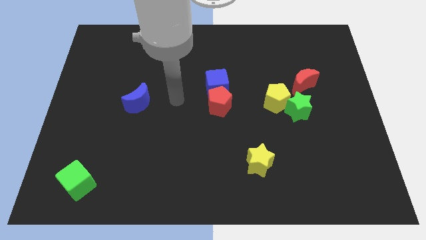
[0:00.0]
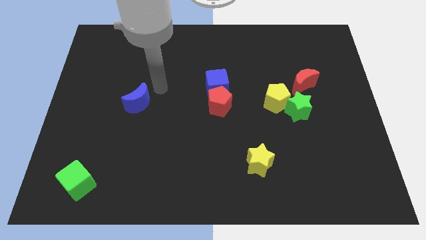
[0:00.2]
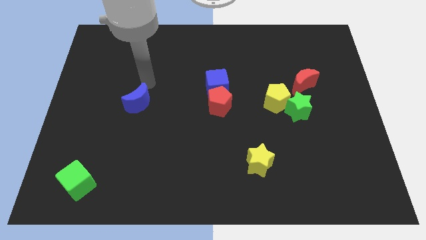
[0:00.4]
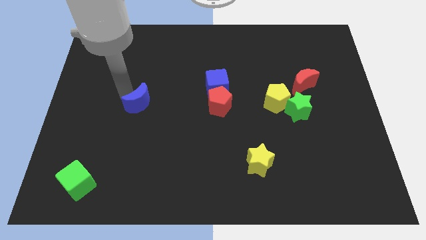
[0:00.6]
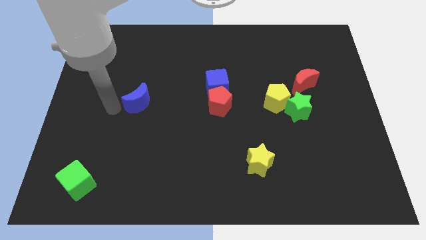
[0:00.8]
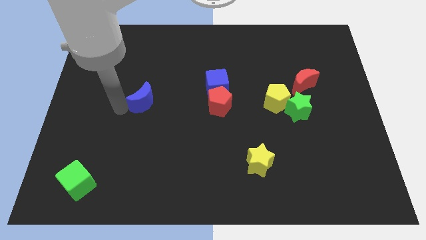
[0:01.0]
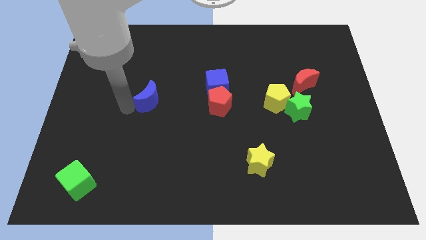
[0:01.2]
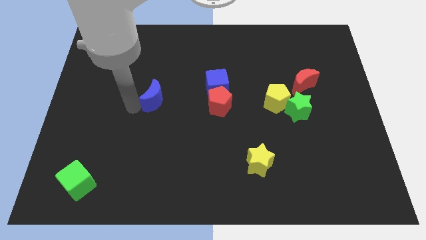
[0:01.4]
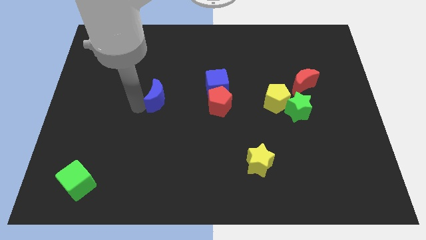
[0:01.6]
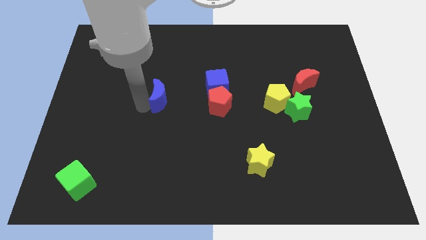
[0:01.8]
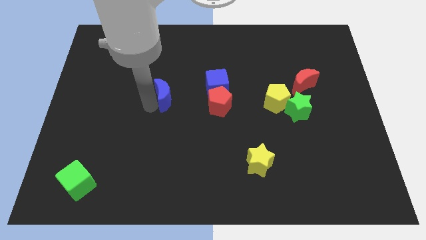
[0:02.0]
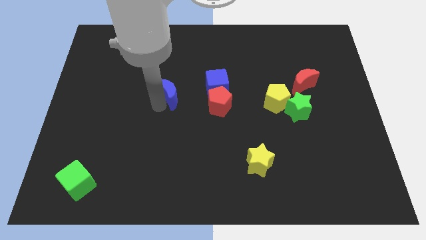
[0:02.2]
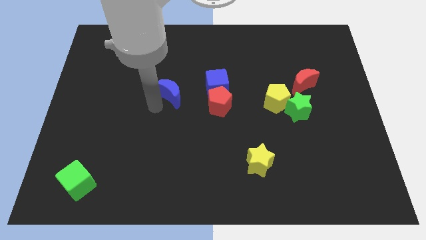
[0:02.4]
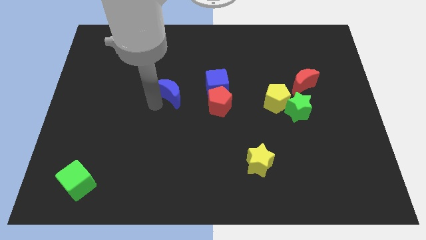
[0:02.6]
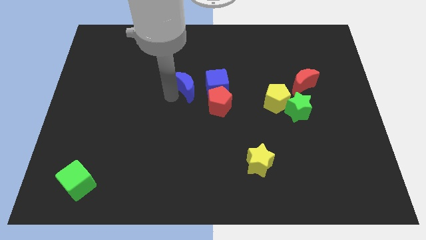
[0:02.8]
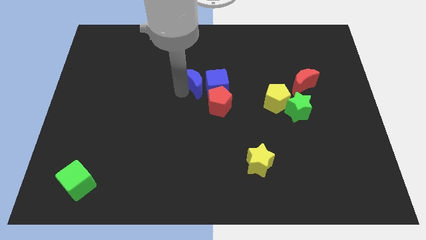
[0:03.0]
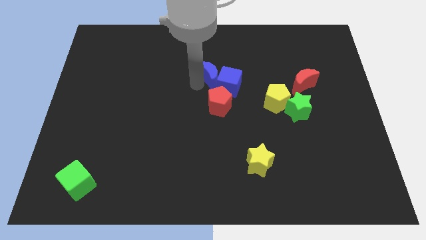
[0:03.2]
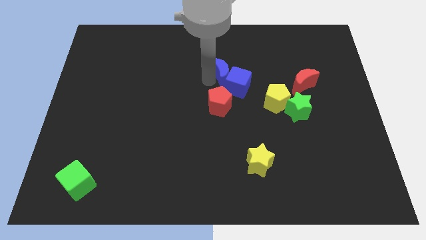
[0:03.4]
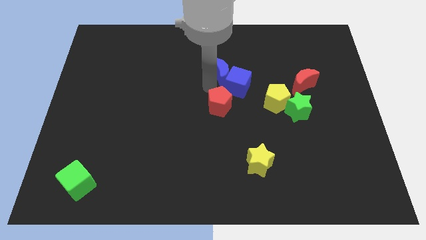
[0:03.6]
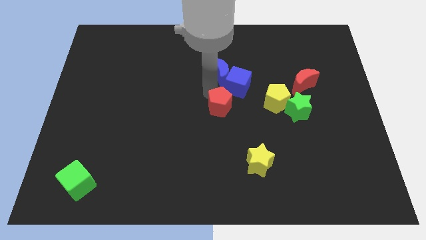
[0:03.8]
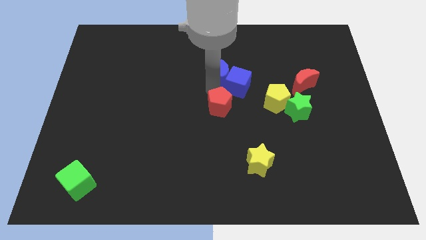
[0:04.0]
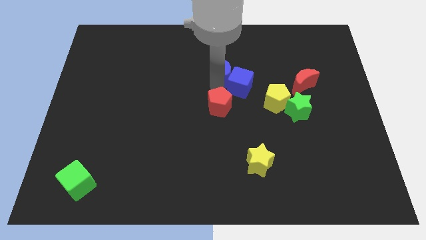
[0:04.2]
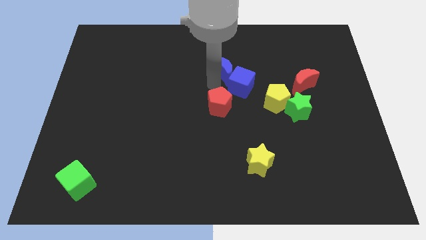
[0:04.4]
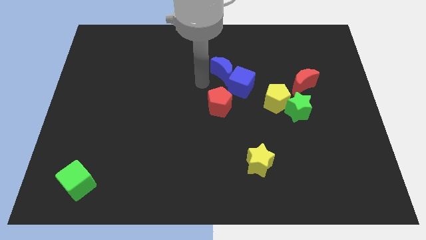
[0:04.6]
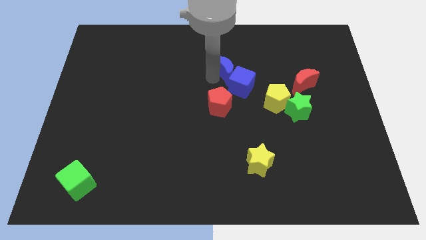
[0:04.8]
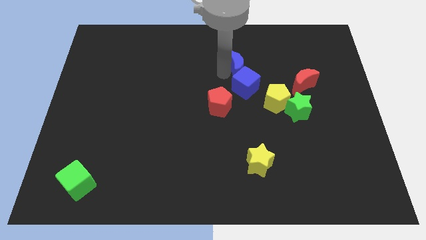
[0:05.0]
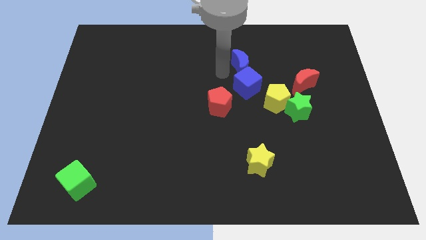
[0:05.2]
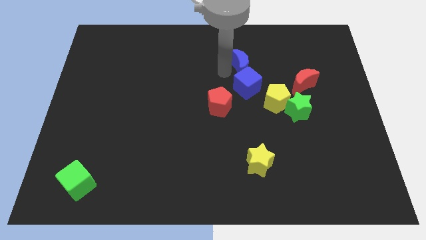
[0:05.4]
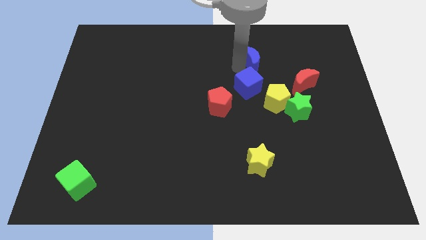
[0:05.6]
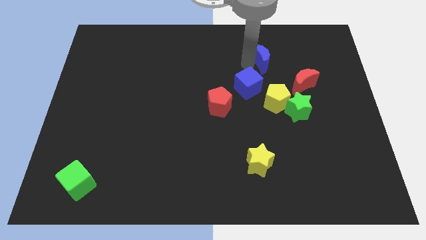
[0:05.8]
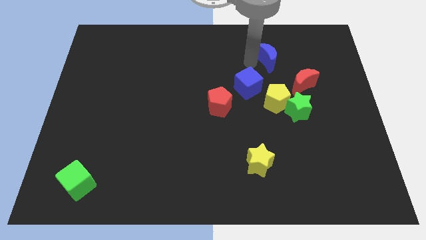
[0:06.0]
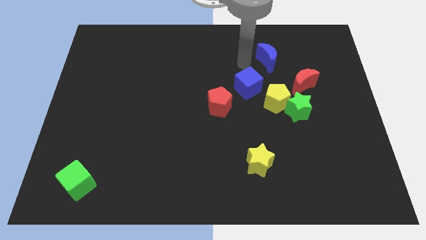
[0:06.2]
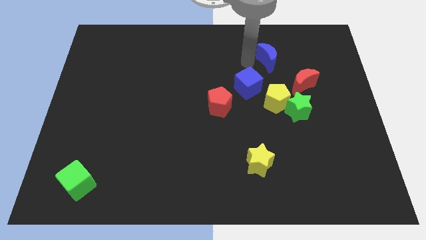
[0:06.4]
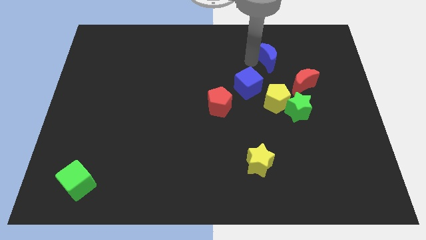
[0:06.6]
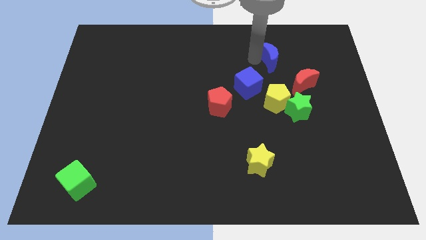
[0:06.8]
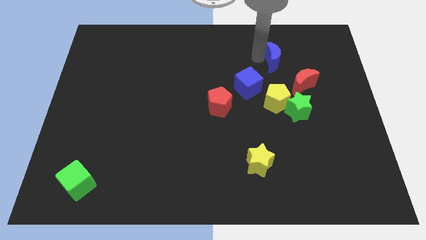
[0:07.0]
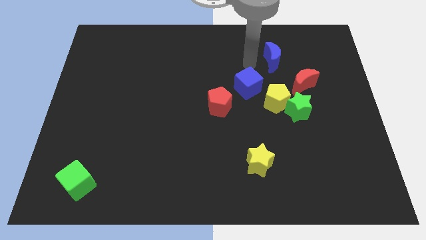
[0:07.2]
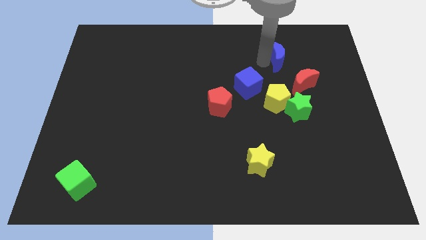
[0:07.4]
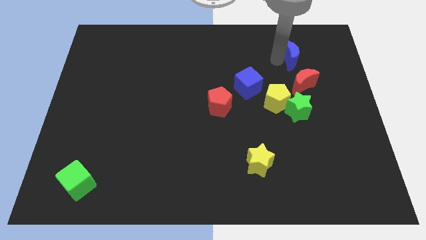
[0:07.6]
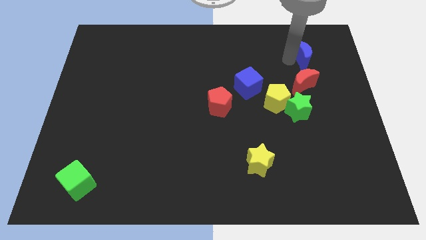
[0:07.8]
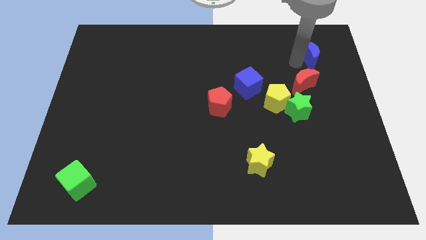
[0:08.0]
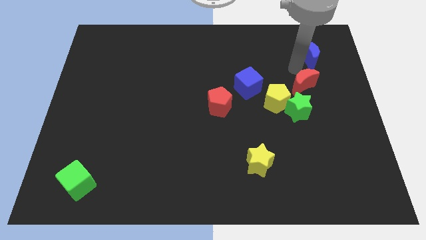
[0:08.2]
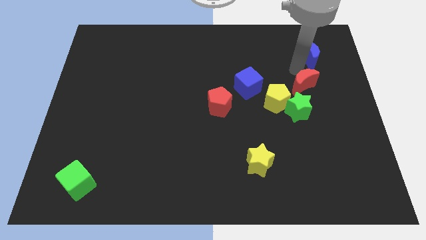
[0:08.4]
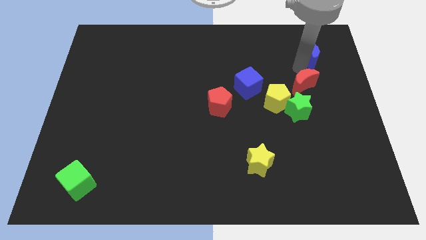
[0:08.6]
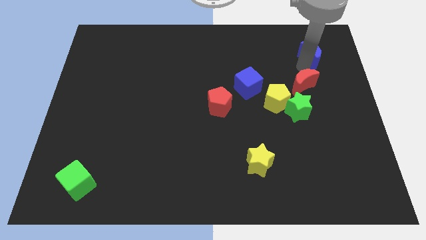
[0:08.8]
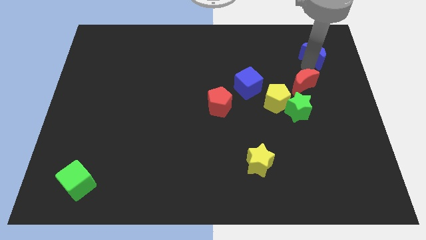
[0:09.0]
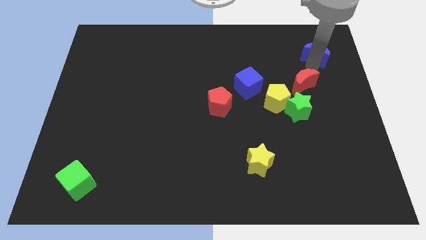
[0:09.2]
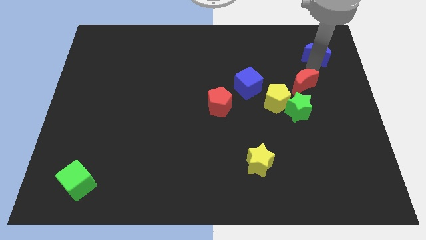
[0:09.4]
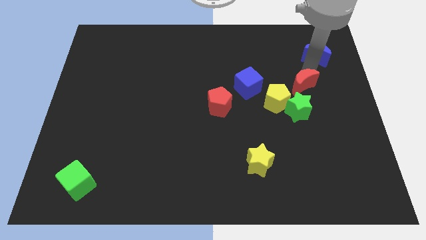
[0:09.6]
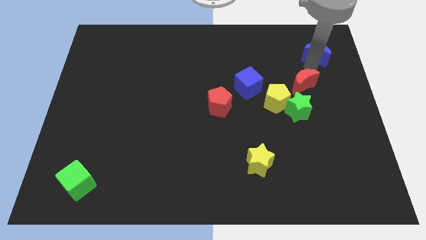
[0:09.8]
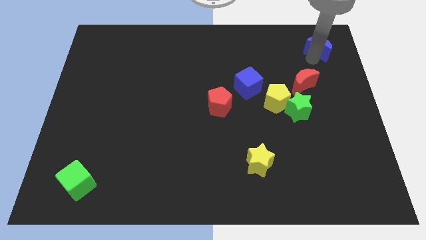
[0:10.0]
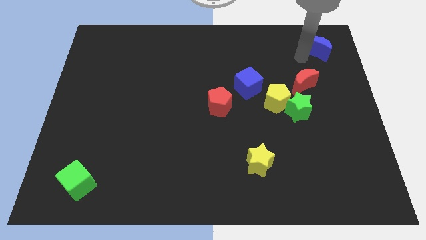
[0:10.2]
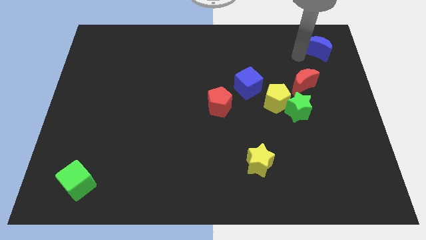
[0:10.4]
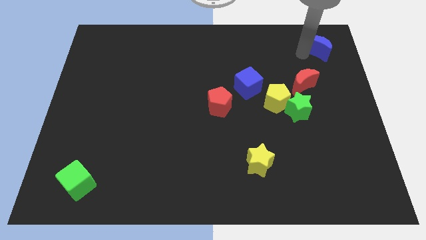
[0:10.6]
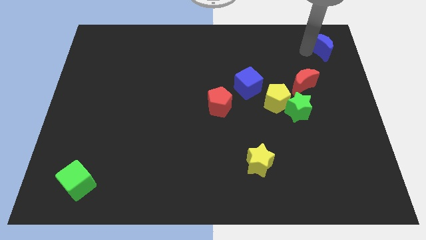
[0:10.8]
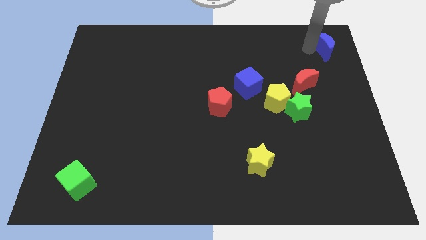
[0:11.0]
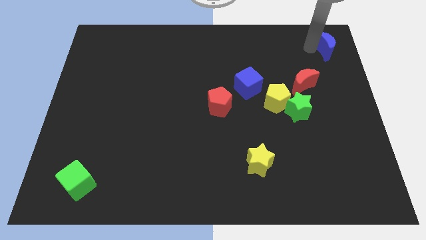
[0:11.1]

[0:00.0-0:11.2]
slide the blue moon to the top right of the board
